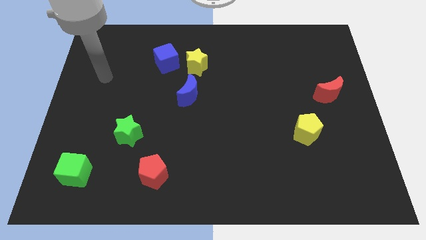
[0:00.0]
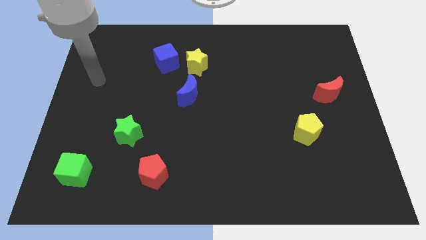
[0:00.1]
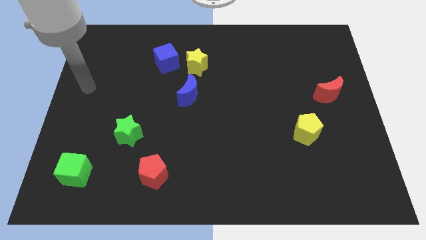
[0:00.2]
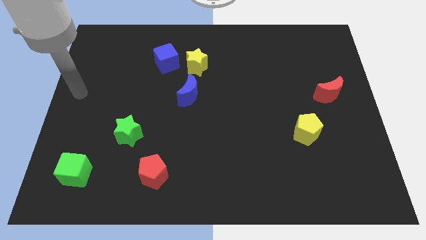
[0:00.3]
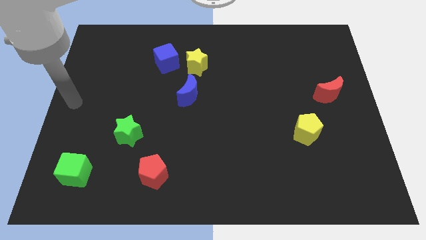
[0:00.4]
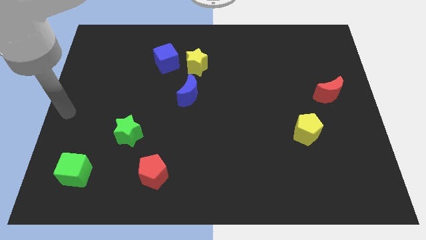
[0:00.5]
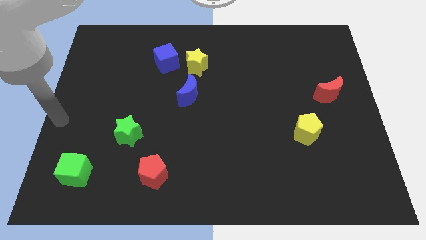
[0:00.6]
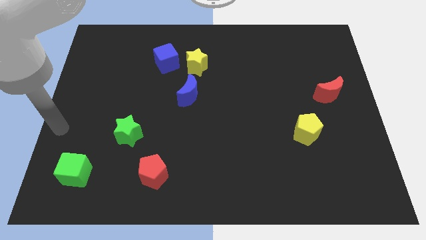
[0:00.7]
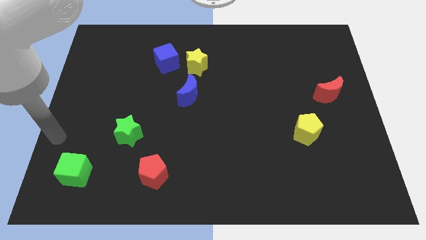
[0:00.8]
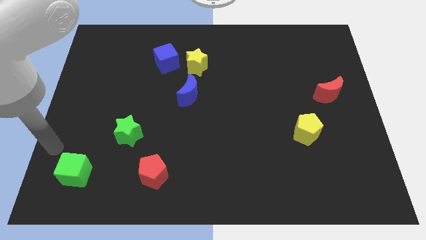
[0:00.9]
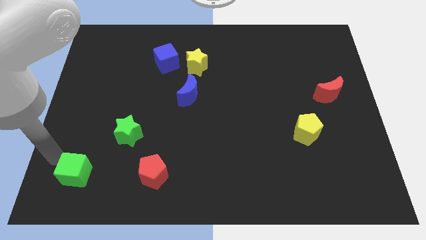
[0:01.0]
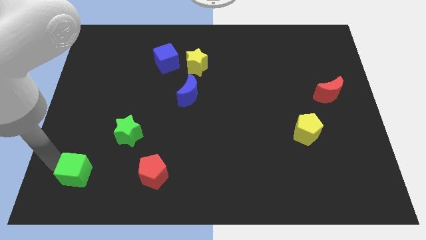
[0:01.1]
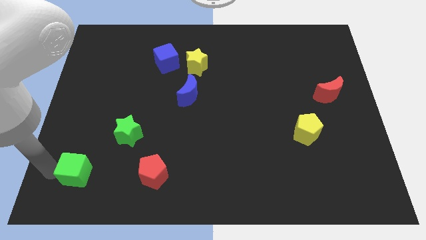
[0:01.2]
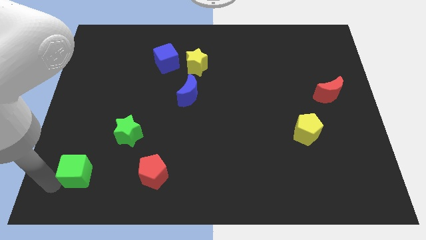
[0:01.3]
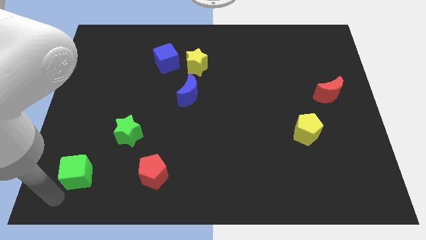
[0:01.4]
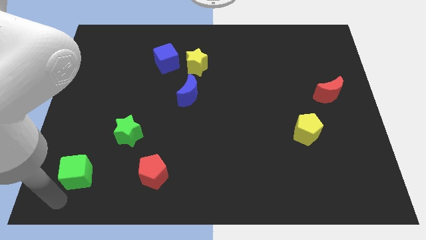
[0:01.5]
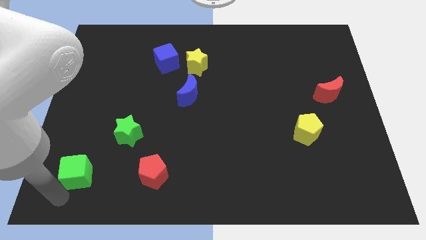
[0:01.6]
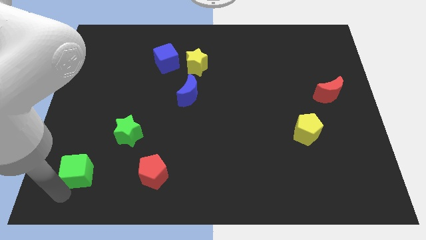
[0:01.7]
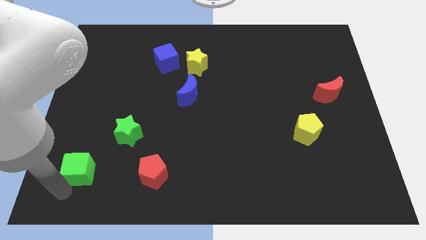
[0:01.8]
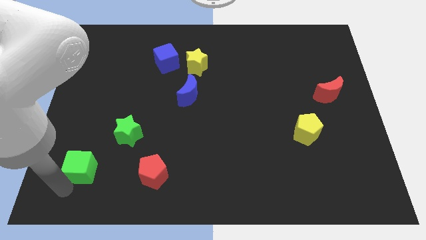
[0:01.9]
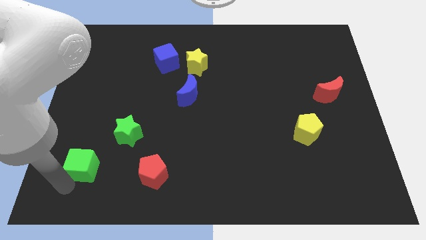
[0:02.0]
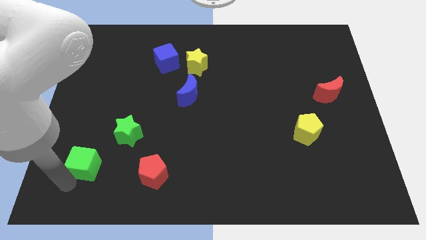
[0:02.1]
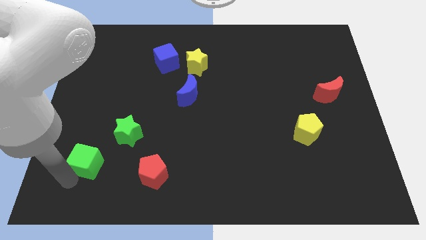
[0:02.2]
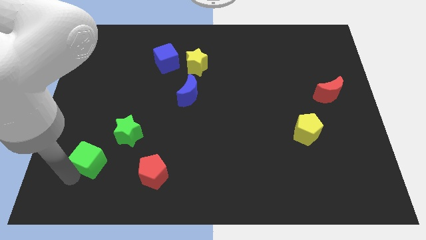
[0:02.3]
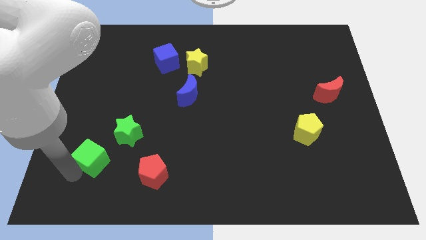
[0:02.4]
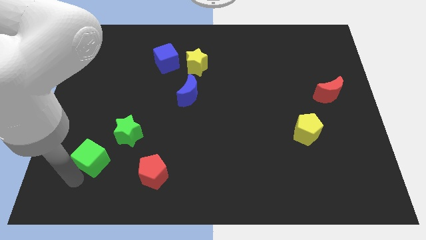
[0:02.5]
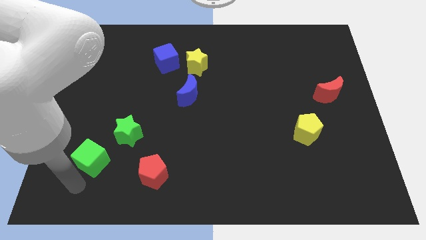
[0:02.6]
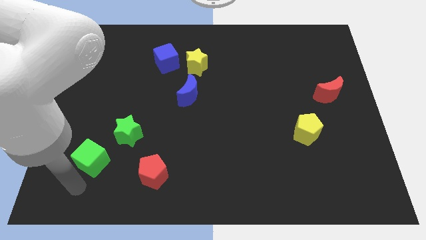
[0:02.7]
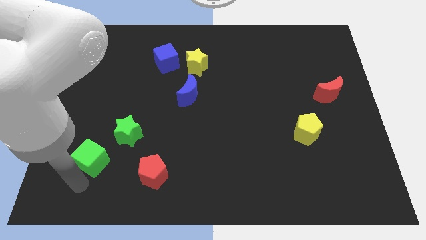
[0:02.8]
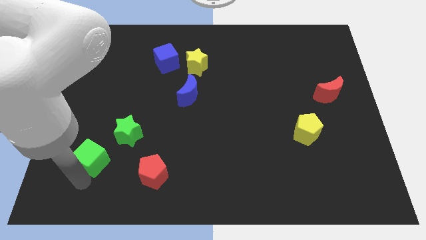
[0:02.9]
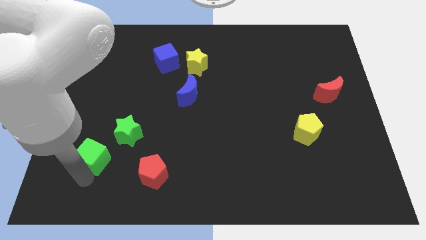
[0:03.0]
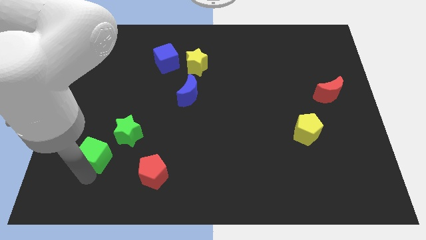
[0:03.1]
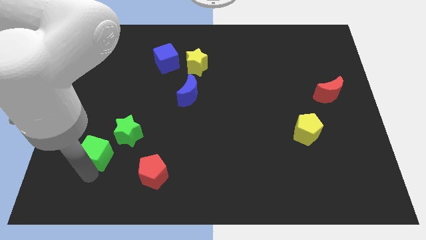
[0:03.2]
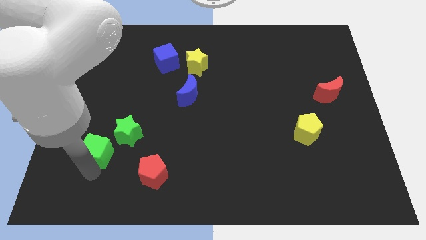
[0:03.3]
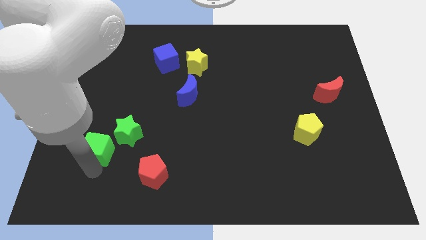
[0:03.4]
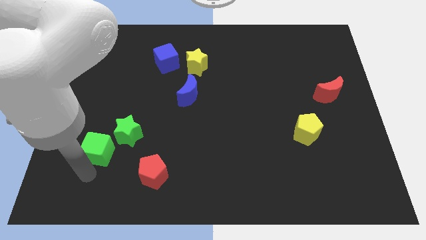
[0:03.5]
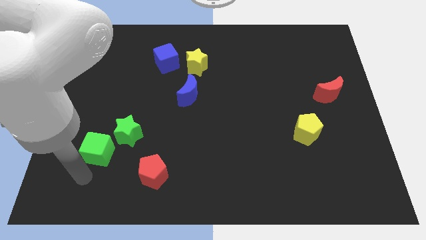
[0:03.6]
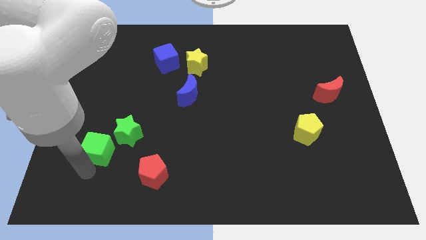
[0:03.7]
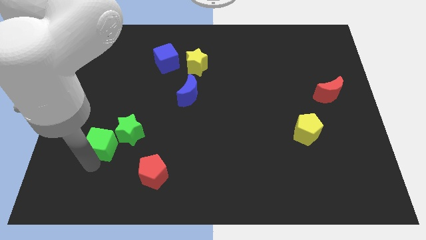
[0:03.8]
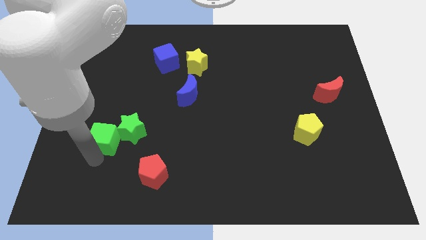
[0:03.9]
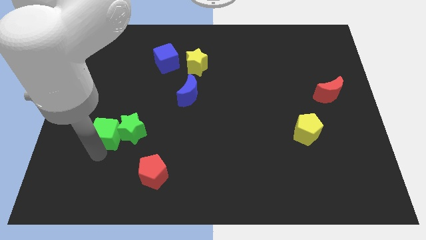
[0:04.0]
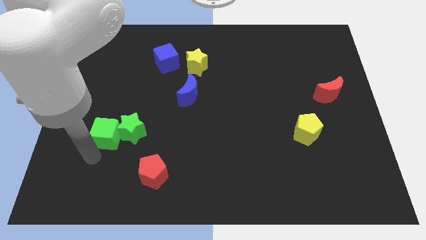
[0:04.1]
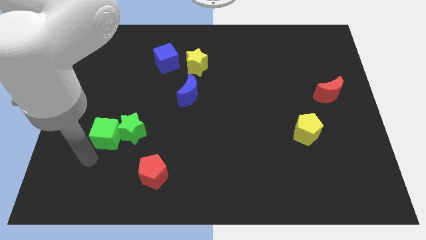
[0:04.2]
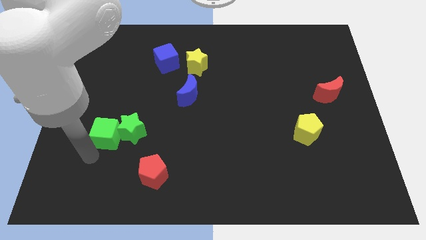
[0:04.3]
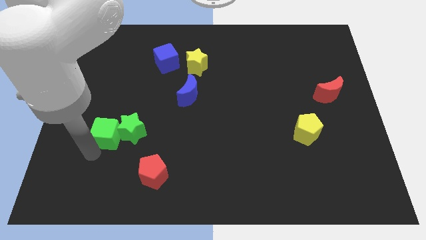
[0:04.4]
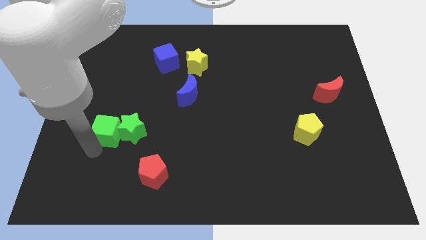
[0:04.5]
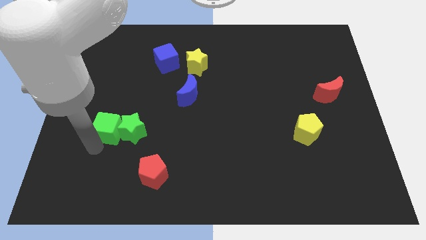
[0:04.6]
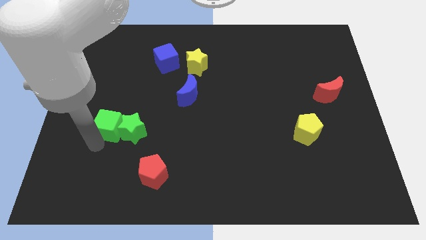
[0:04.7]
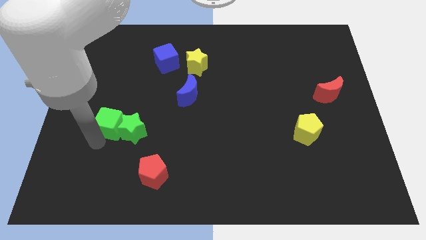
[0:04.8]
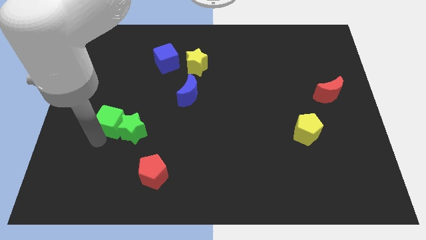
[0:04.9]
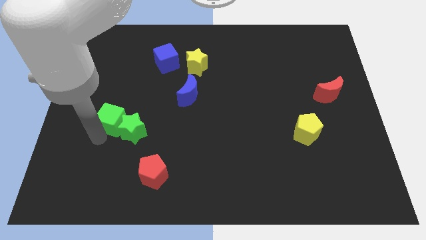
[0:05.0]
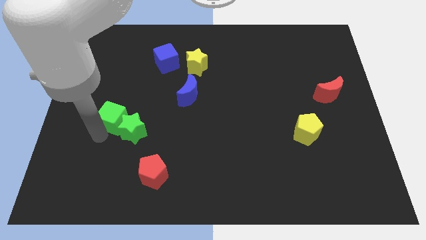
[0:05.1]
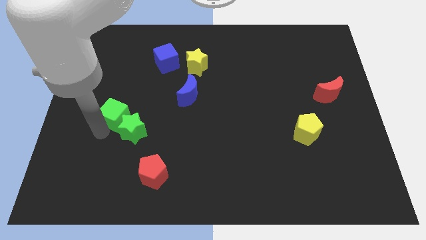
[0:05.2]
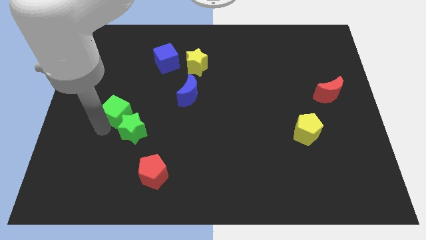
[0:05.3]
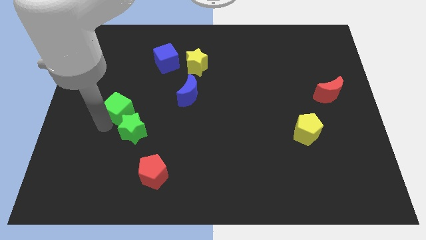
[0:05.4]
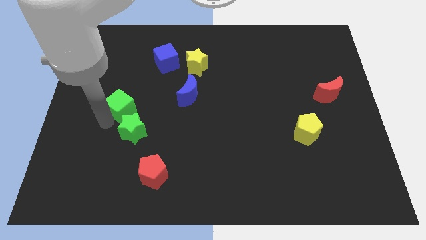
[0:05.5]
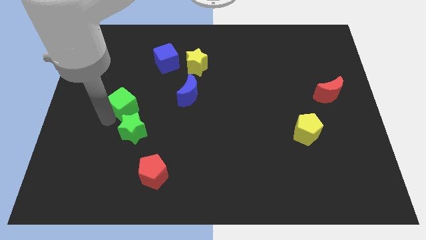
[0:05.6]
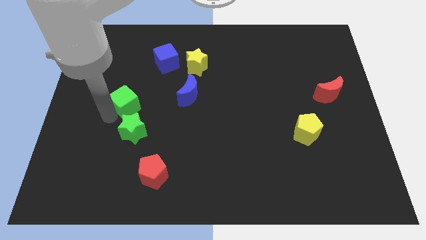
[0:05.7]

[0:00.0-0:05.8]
slide the green cube left of the blue moon

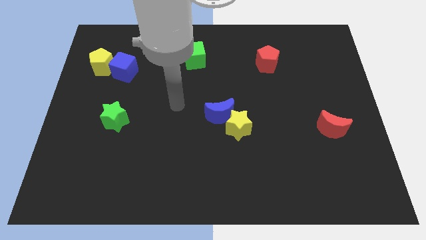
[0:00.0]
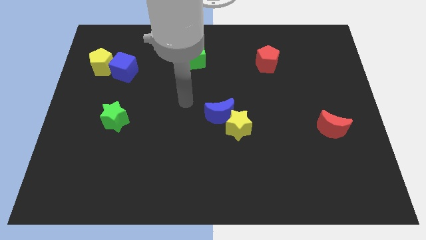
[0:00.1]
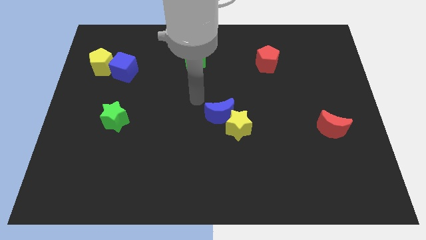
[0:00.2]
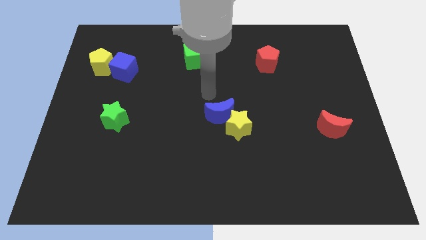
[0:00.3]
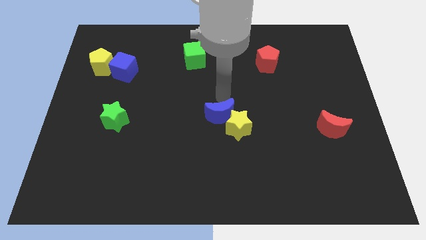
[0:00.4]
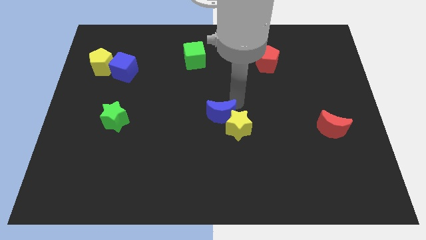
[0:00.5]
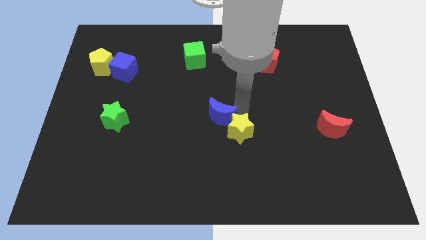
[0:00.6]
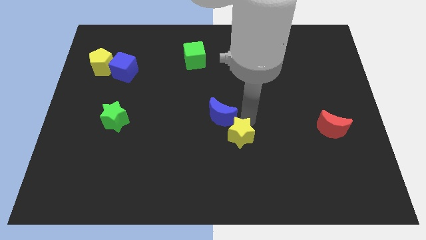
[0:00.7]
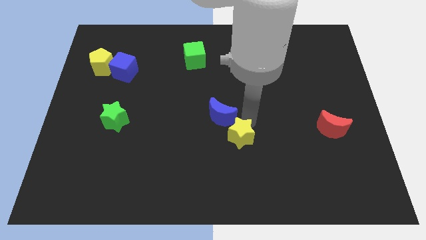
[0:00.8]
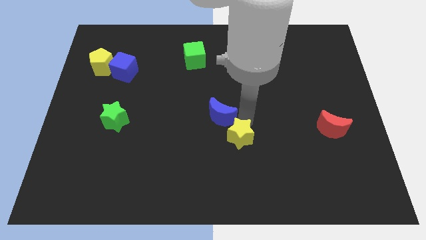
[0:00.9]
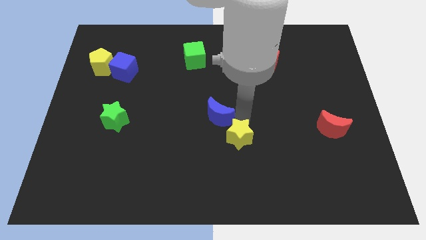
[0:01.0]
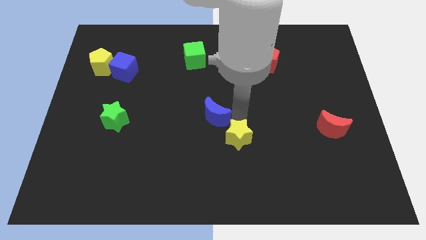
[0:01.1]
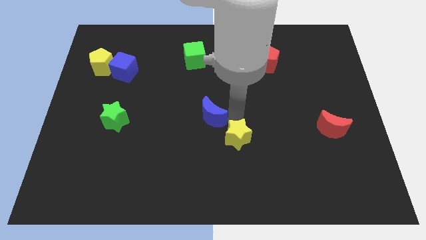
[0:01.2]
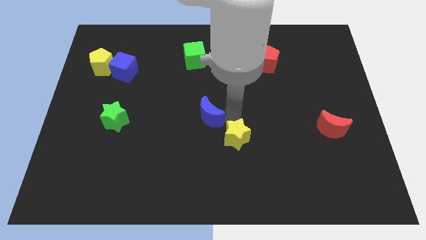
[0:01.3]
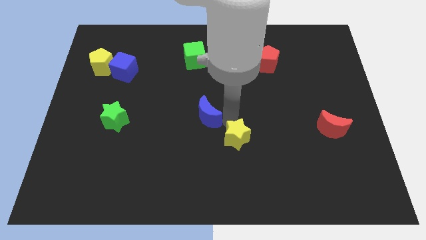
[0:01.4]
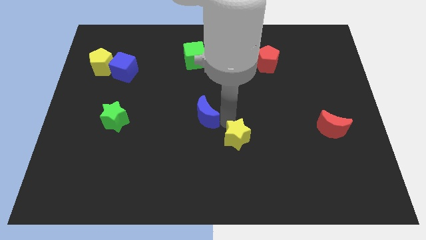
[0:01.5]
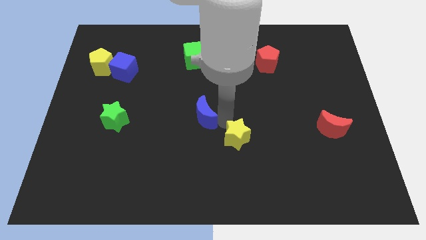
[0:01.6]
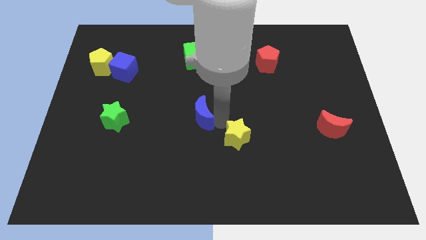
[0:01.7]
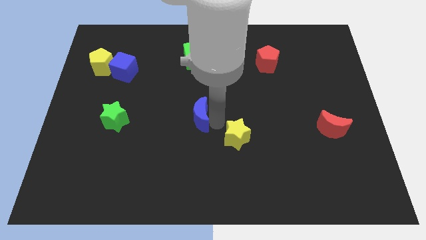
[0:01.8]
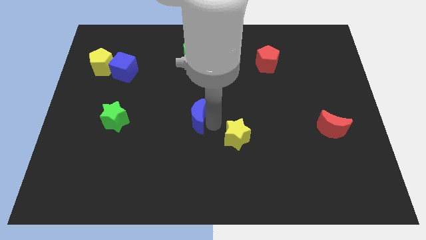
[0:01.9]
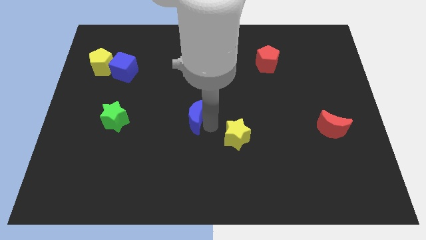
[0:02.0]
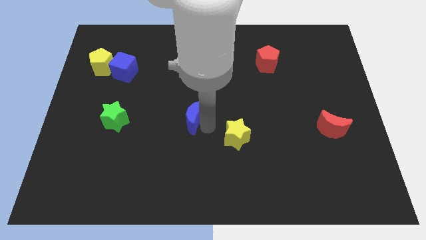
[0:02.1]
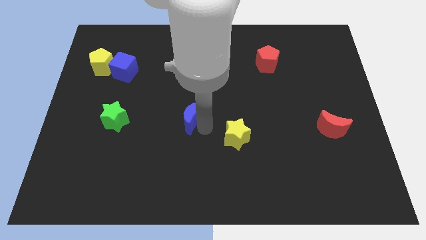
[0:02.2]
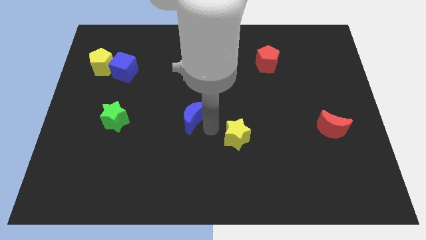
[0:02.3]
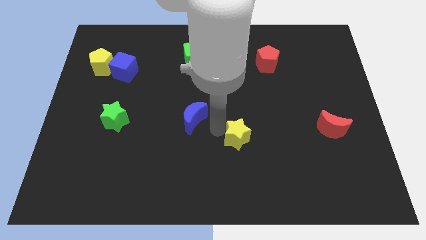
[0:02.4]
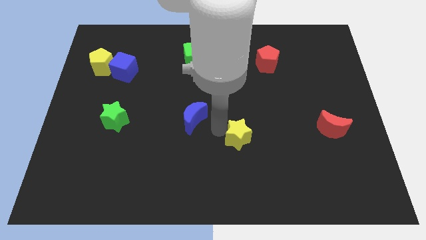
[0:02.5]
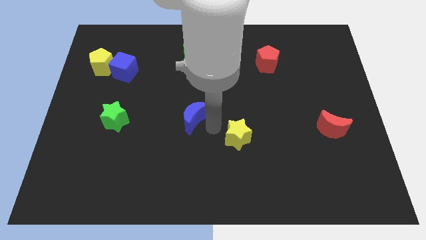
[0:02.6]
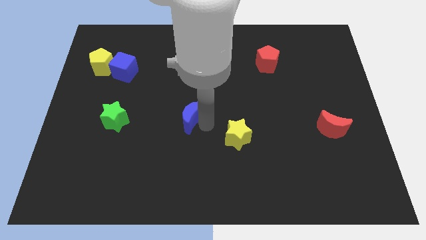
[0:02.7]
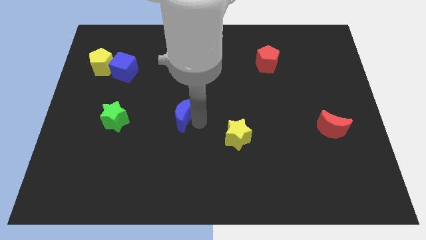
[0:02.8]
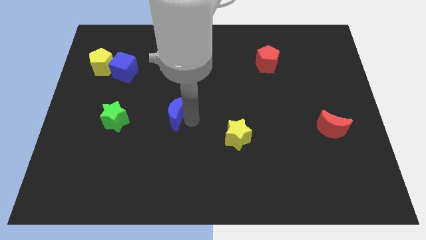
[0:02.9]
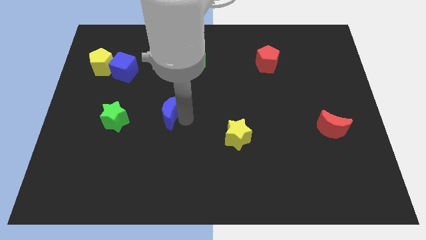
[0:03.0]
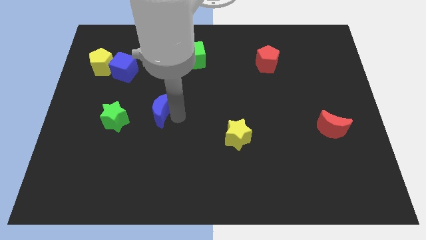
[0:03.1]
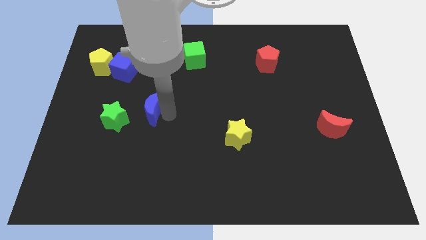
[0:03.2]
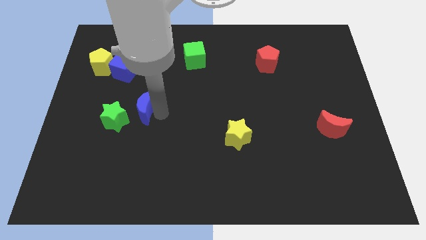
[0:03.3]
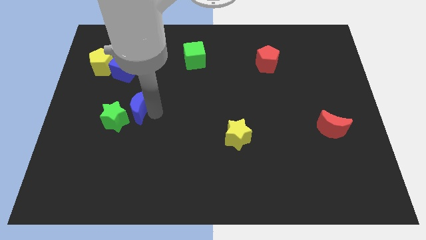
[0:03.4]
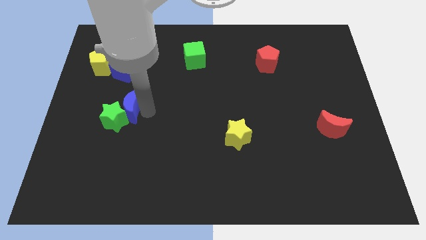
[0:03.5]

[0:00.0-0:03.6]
slide the blue moon below the blue cube
